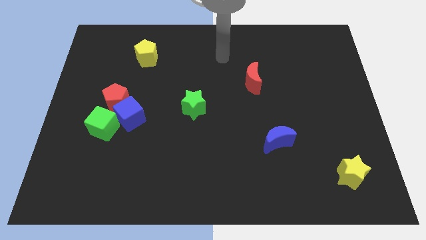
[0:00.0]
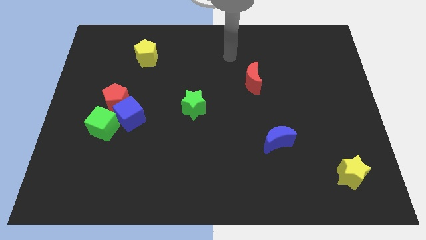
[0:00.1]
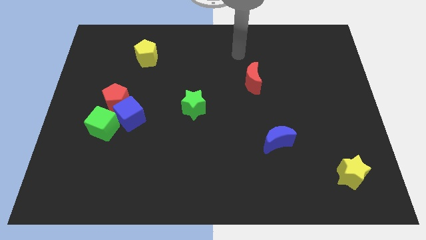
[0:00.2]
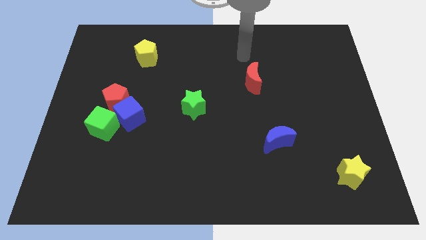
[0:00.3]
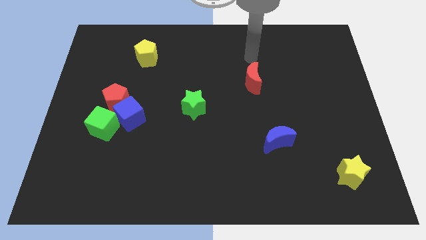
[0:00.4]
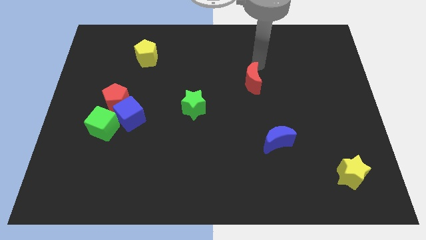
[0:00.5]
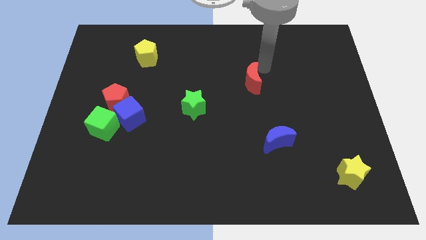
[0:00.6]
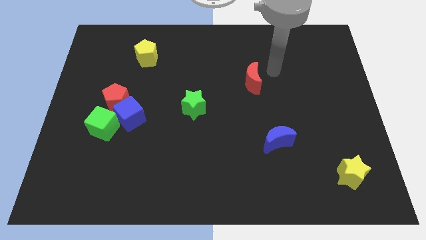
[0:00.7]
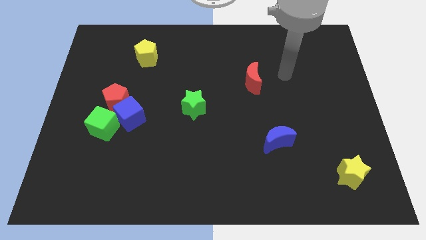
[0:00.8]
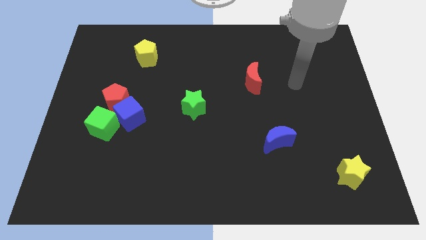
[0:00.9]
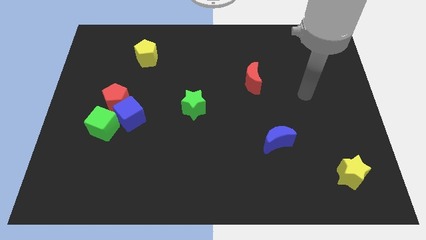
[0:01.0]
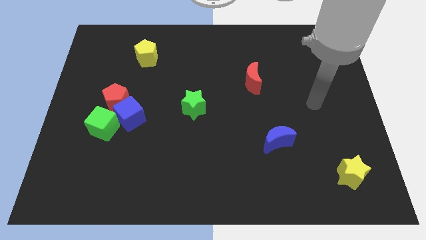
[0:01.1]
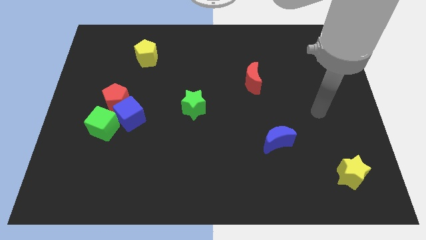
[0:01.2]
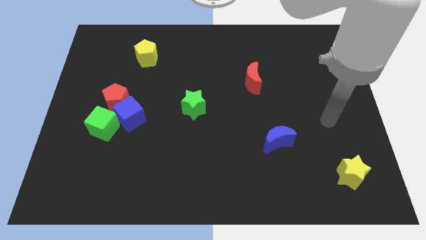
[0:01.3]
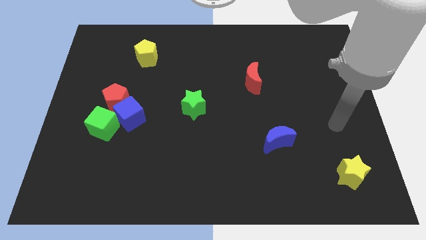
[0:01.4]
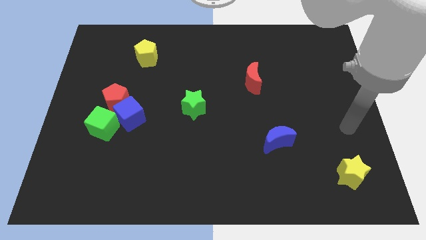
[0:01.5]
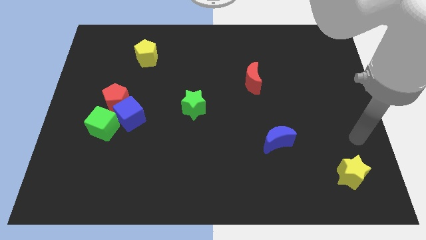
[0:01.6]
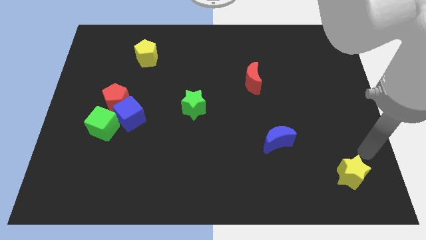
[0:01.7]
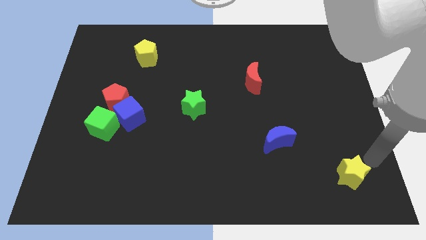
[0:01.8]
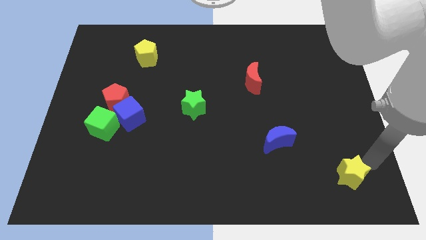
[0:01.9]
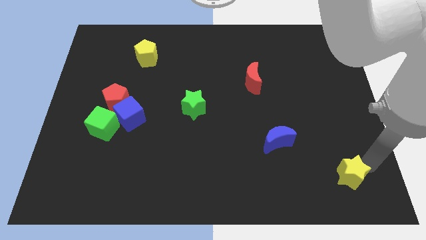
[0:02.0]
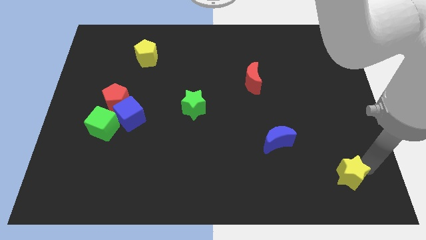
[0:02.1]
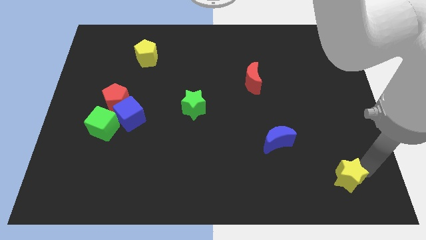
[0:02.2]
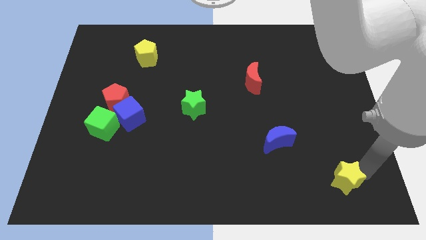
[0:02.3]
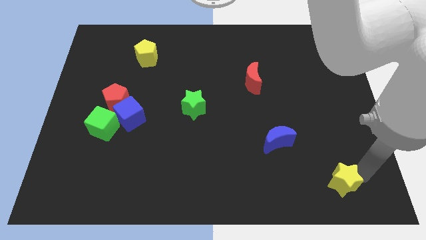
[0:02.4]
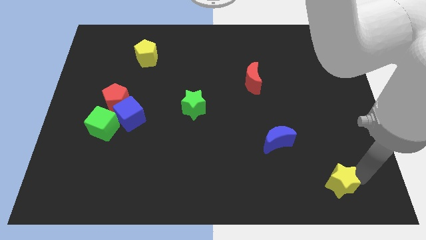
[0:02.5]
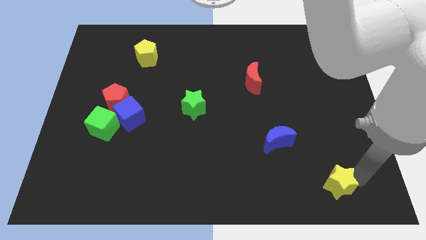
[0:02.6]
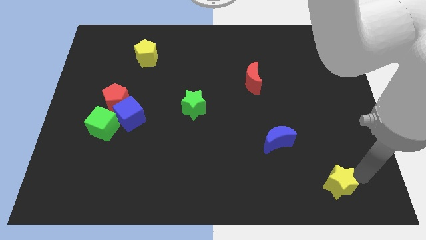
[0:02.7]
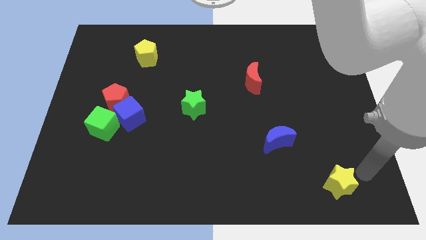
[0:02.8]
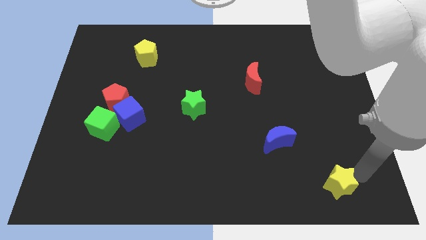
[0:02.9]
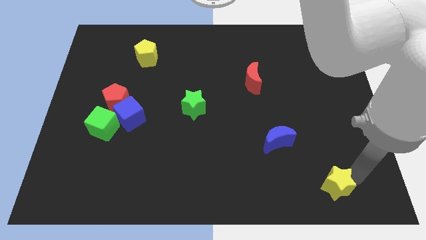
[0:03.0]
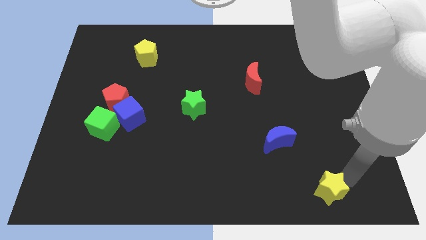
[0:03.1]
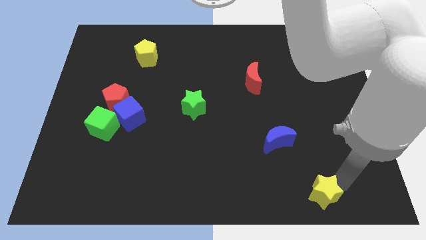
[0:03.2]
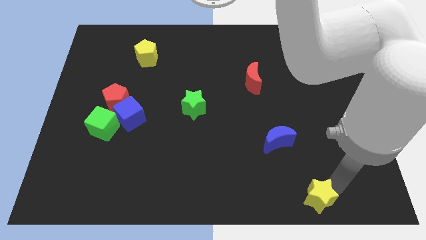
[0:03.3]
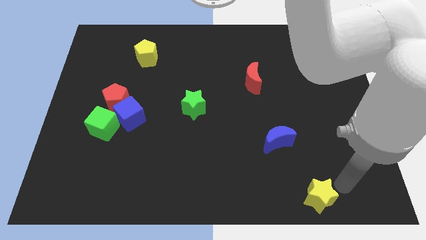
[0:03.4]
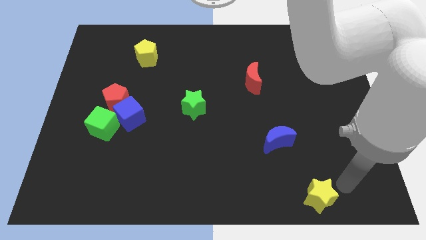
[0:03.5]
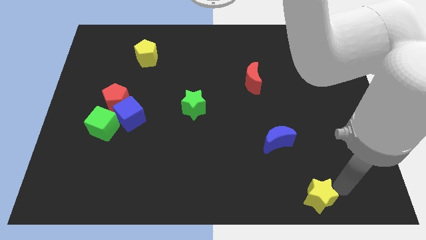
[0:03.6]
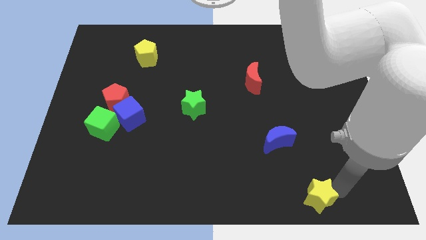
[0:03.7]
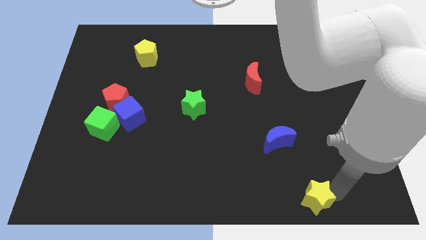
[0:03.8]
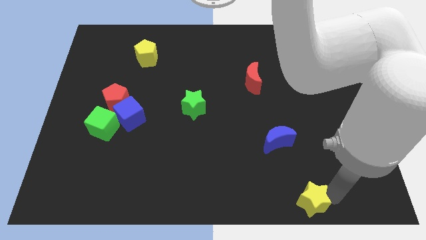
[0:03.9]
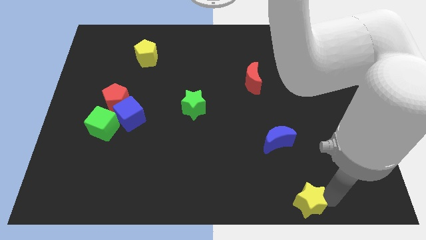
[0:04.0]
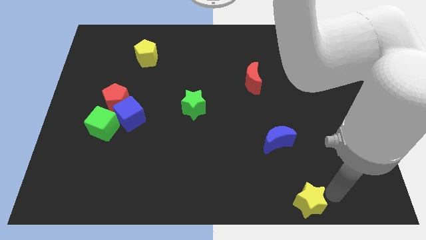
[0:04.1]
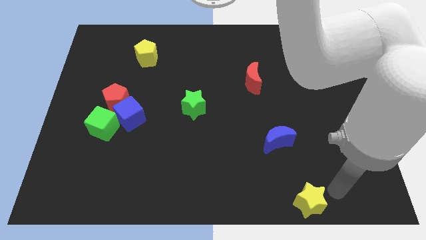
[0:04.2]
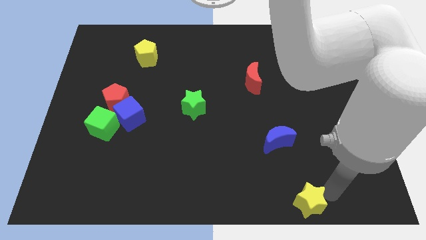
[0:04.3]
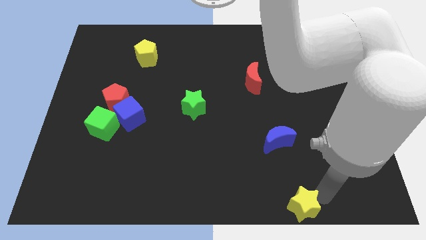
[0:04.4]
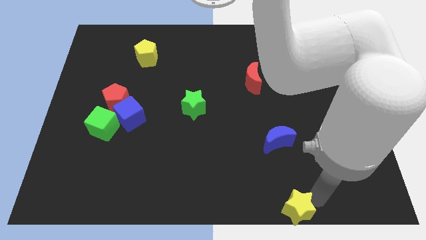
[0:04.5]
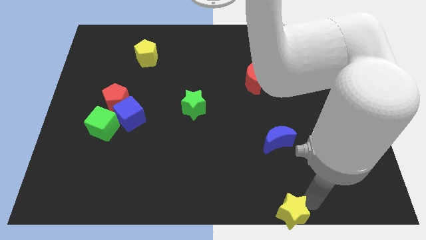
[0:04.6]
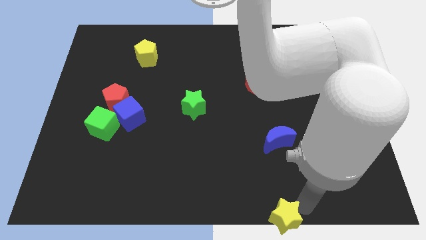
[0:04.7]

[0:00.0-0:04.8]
put the yellow star to the bottom side

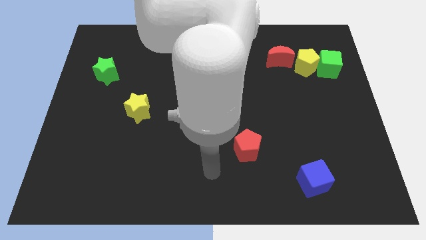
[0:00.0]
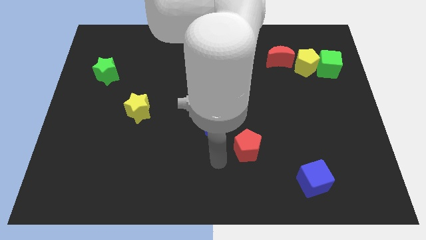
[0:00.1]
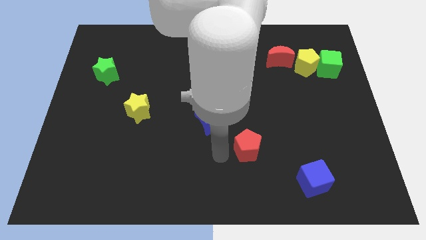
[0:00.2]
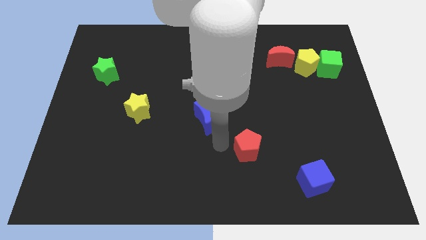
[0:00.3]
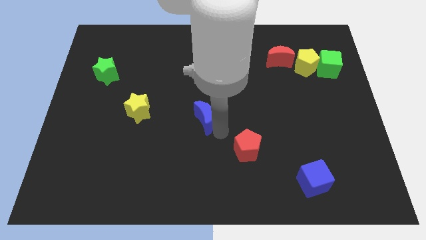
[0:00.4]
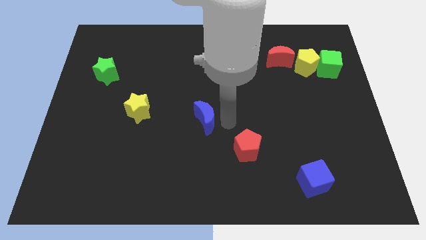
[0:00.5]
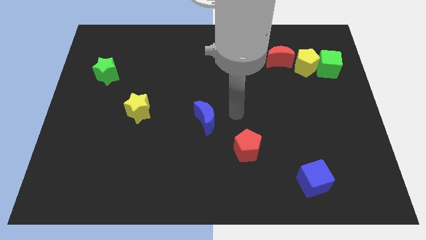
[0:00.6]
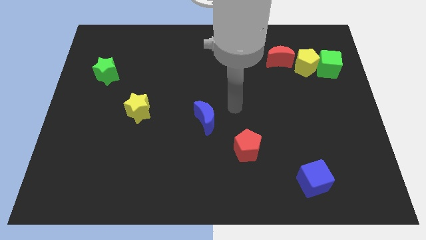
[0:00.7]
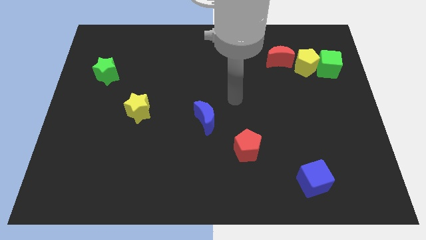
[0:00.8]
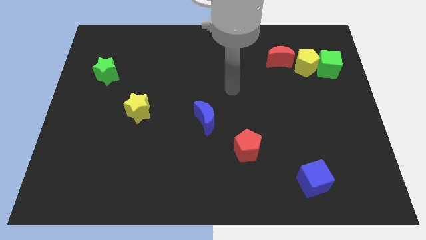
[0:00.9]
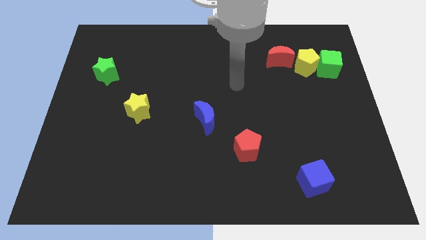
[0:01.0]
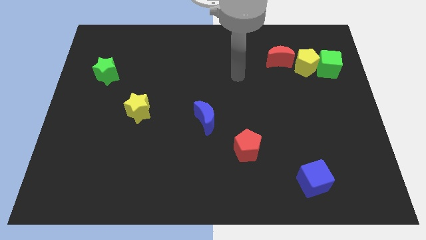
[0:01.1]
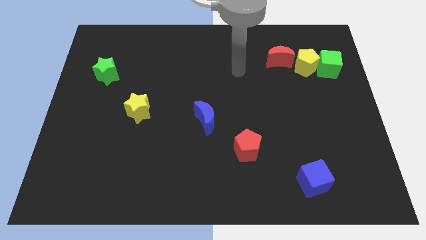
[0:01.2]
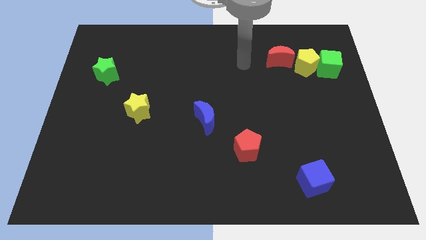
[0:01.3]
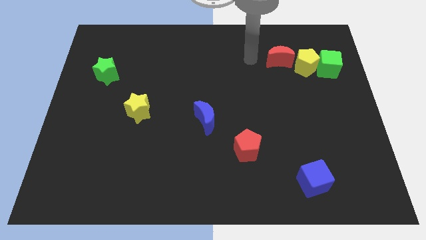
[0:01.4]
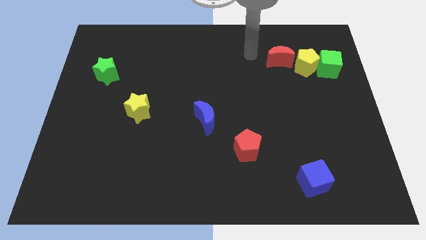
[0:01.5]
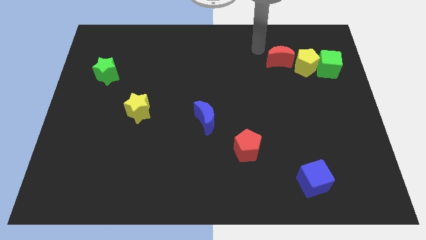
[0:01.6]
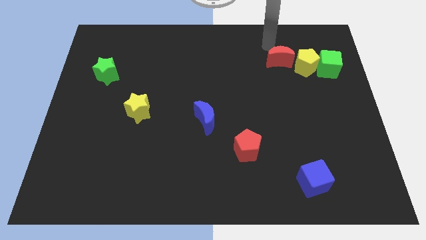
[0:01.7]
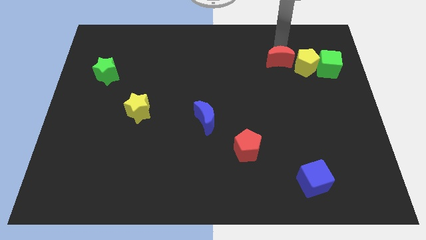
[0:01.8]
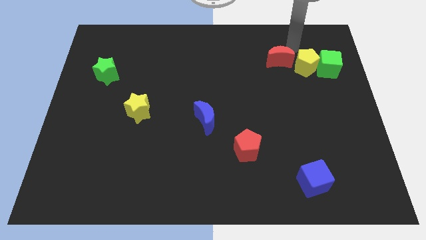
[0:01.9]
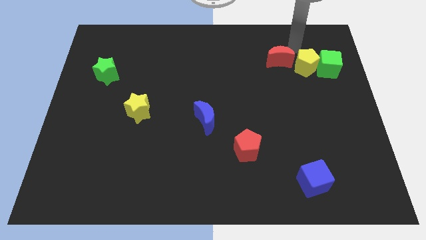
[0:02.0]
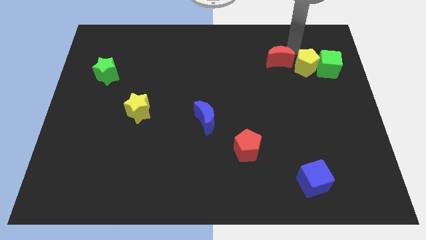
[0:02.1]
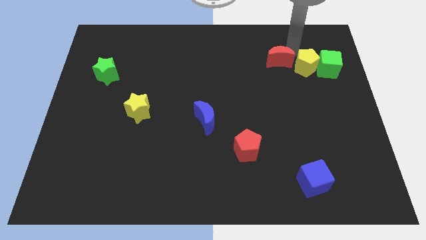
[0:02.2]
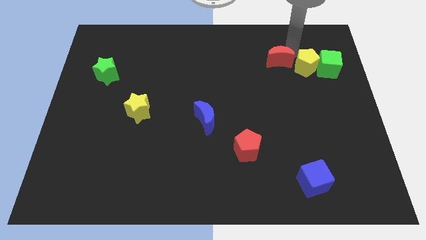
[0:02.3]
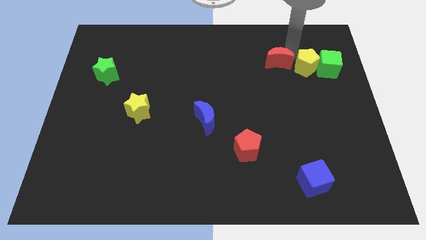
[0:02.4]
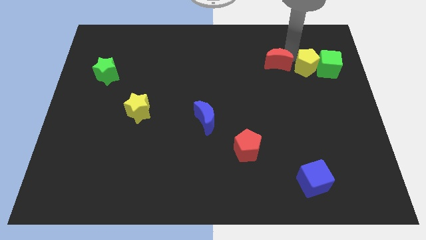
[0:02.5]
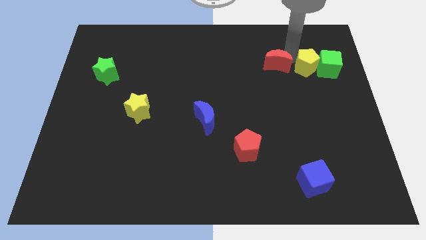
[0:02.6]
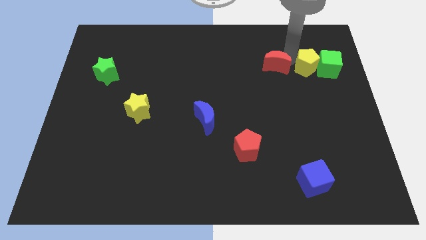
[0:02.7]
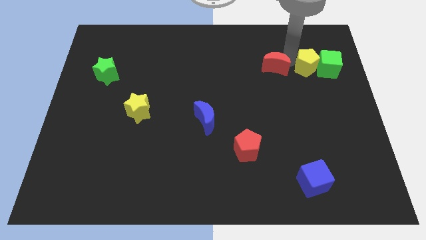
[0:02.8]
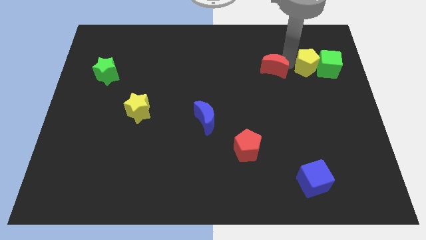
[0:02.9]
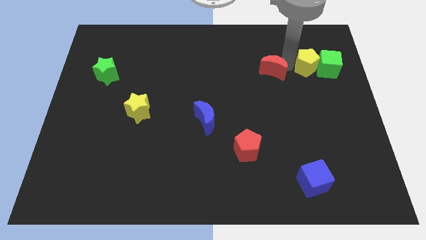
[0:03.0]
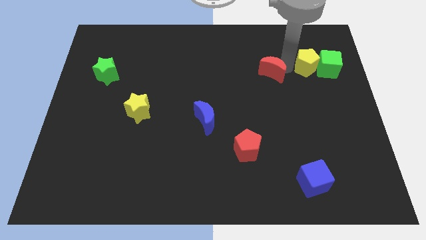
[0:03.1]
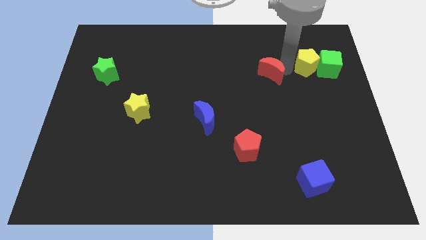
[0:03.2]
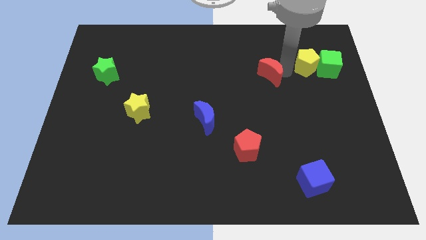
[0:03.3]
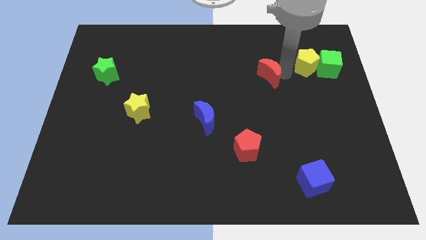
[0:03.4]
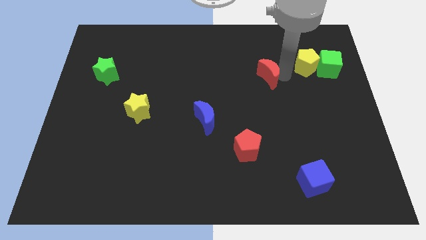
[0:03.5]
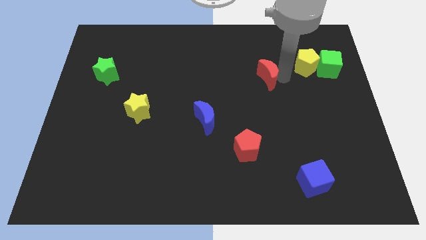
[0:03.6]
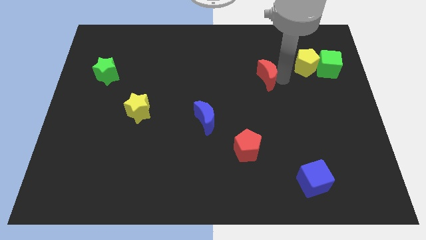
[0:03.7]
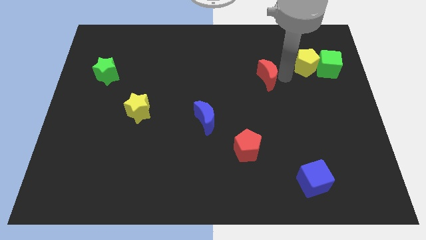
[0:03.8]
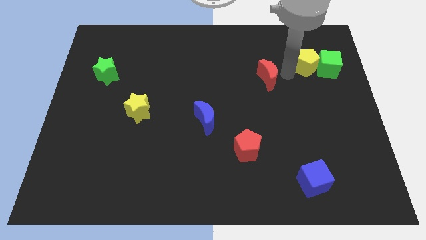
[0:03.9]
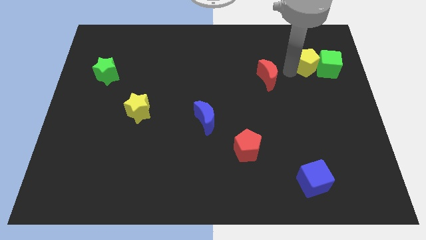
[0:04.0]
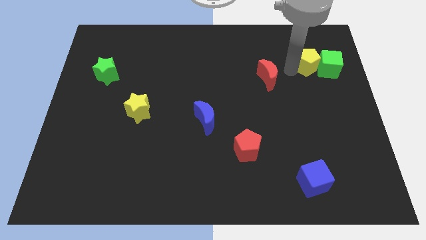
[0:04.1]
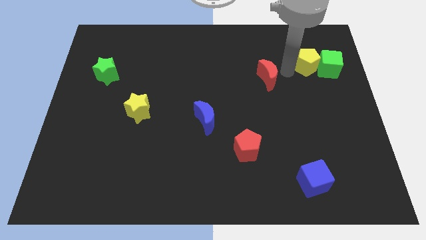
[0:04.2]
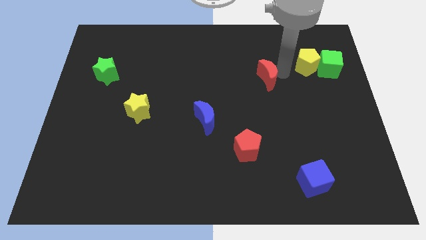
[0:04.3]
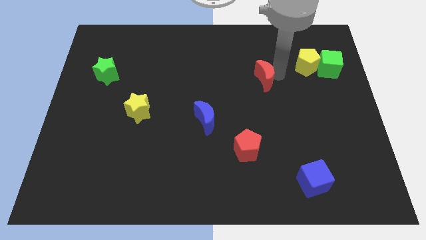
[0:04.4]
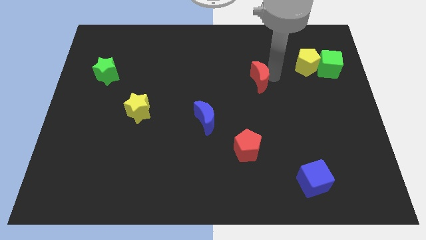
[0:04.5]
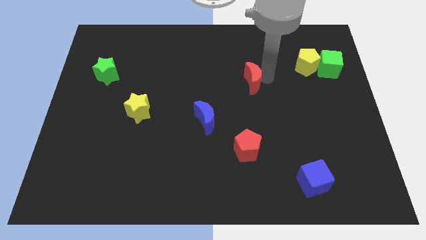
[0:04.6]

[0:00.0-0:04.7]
move the red moon to the center of the board
